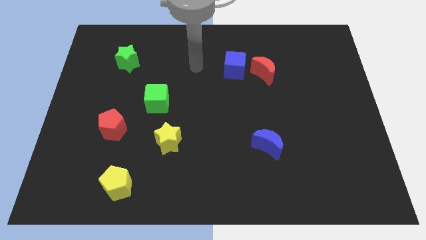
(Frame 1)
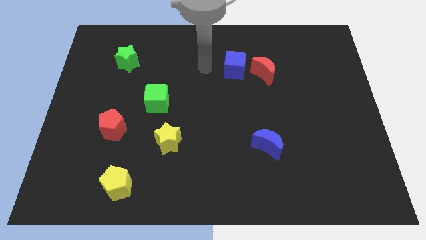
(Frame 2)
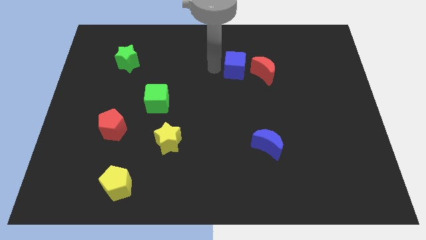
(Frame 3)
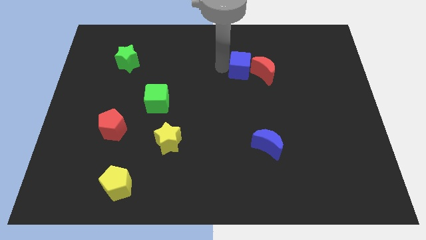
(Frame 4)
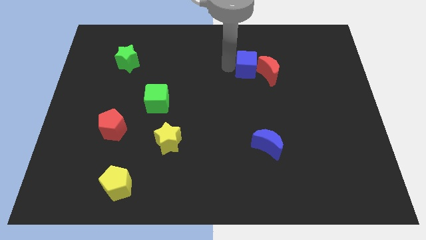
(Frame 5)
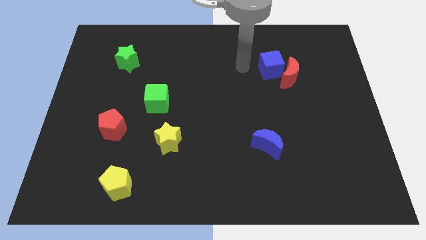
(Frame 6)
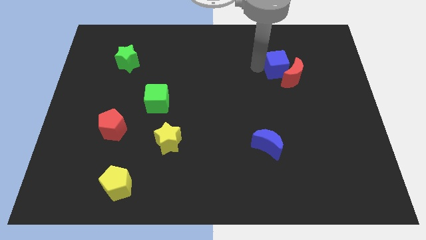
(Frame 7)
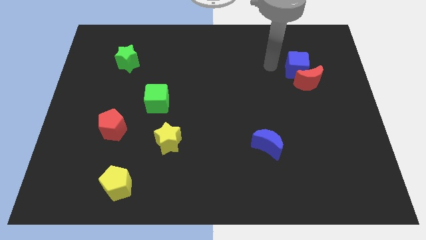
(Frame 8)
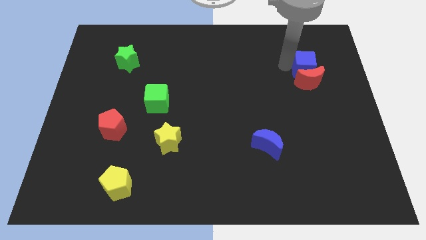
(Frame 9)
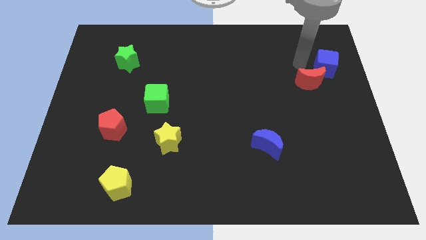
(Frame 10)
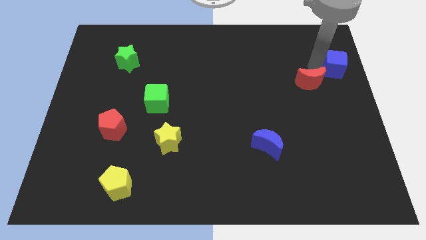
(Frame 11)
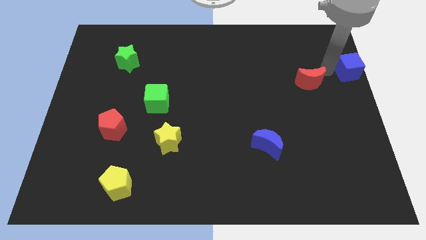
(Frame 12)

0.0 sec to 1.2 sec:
separate the red moon from the blue cube

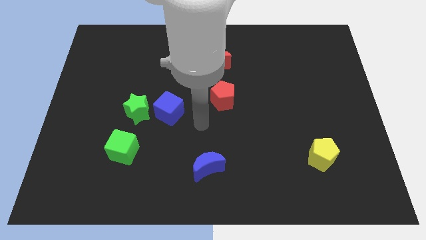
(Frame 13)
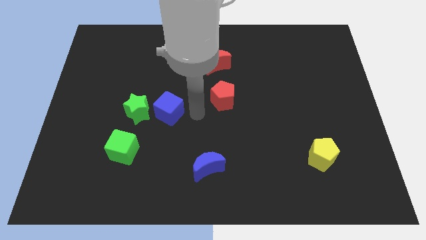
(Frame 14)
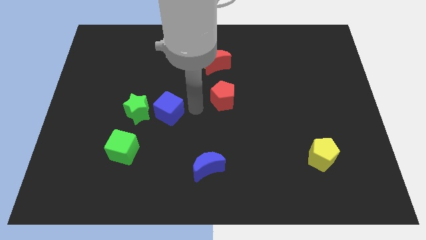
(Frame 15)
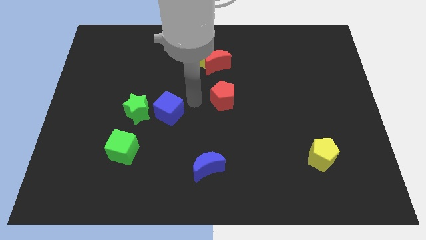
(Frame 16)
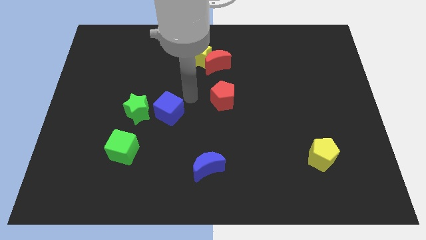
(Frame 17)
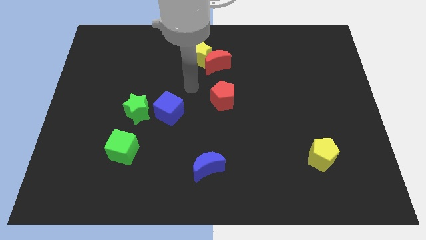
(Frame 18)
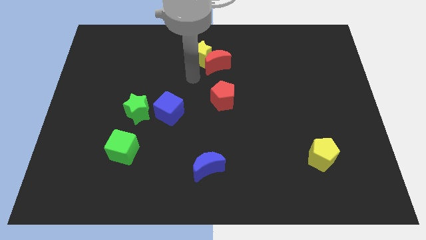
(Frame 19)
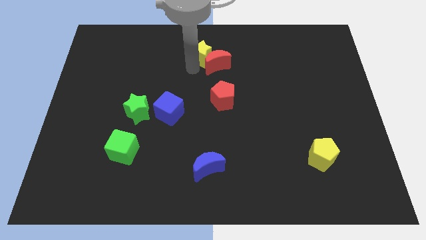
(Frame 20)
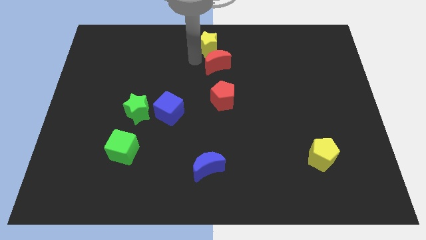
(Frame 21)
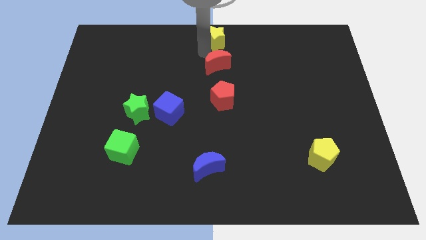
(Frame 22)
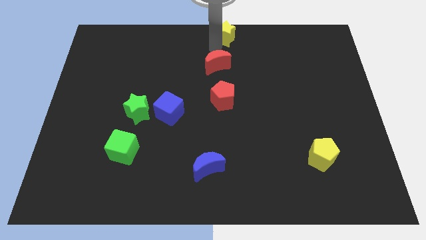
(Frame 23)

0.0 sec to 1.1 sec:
separate the red moon from the yellow star

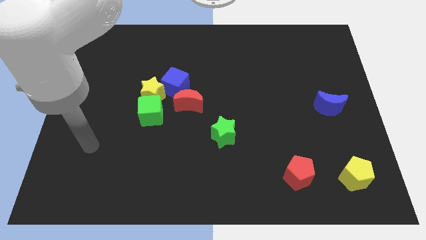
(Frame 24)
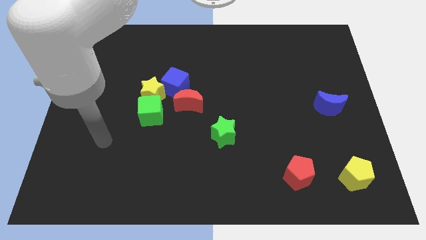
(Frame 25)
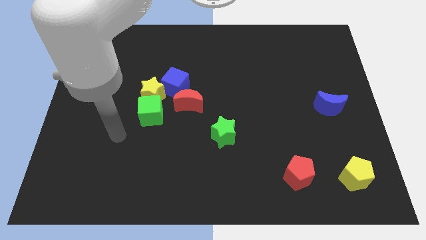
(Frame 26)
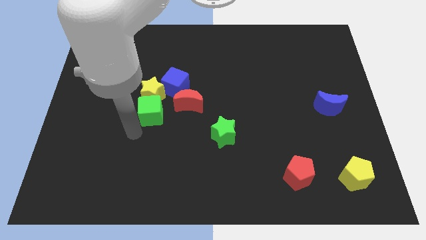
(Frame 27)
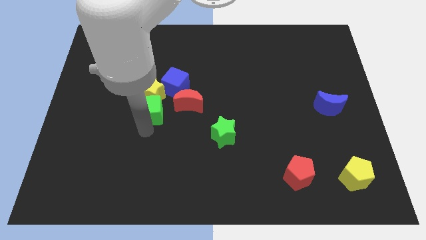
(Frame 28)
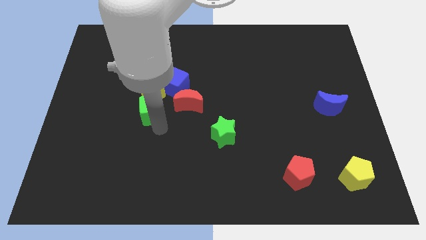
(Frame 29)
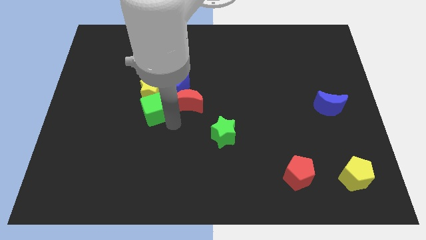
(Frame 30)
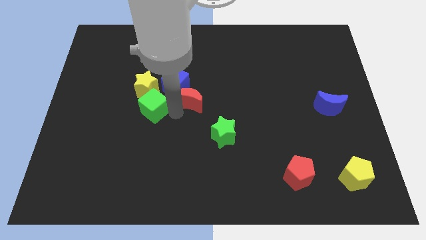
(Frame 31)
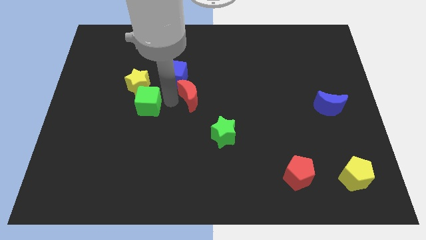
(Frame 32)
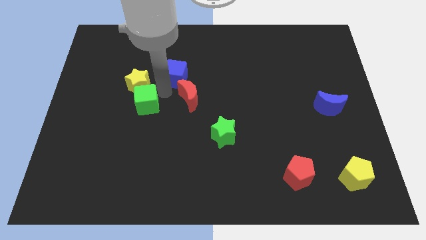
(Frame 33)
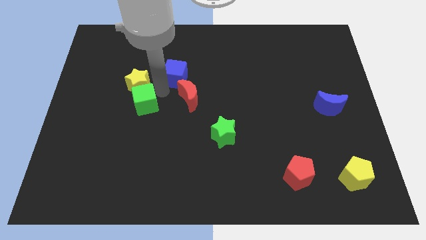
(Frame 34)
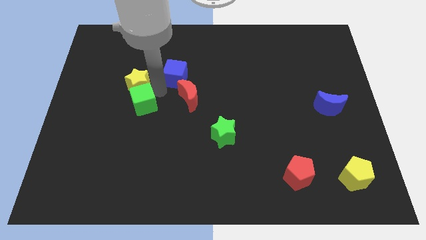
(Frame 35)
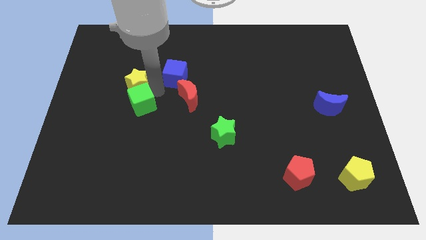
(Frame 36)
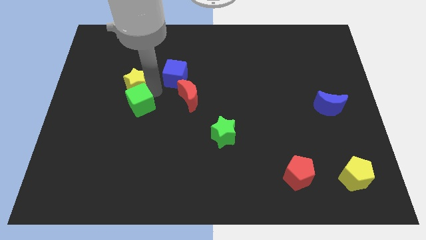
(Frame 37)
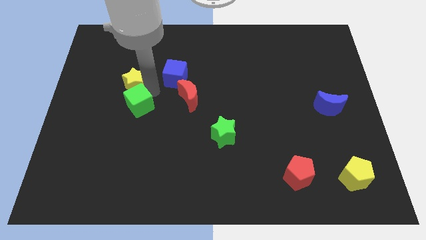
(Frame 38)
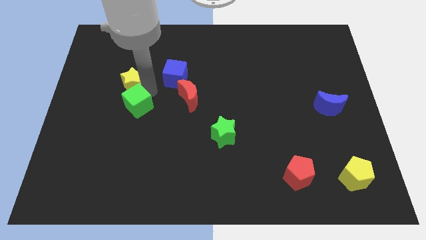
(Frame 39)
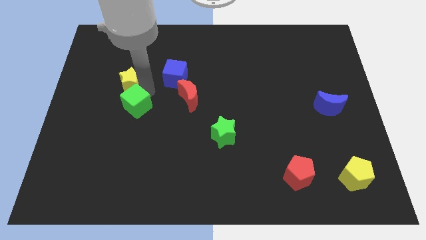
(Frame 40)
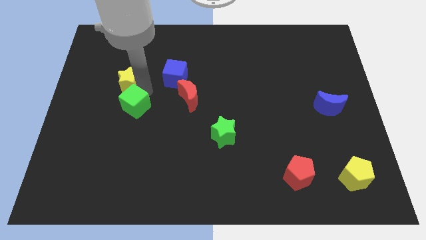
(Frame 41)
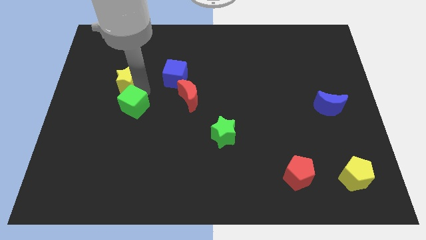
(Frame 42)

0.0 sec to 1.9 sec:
separate the yellow star from the clump

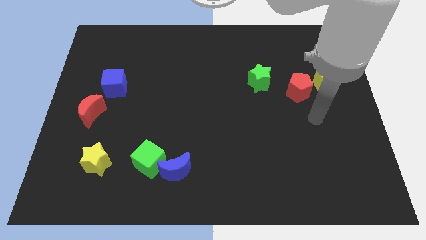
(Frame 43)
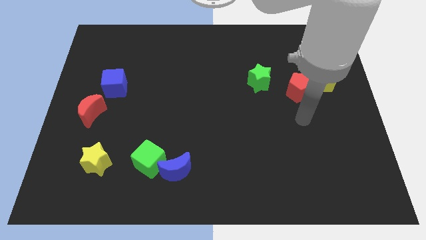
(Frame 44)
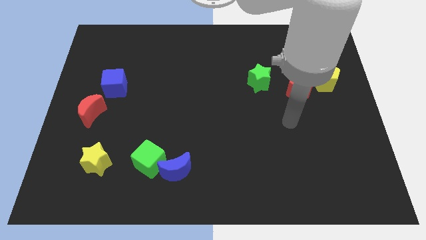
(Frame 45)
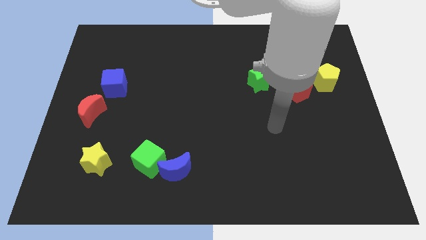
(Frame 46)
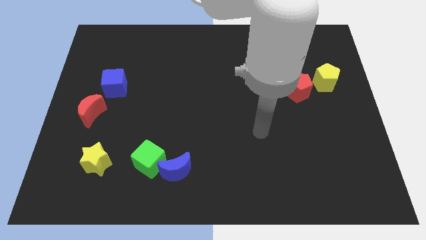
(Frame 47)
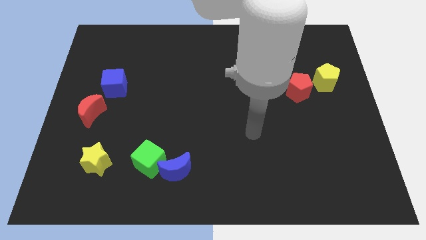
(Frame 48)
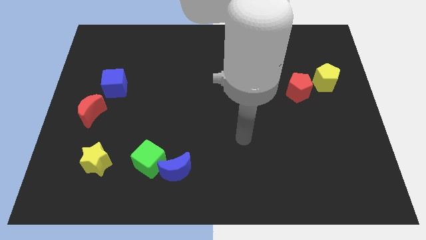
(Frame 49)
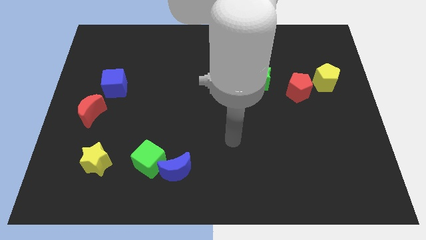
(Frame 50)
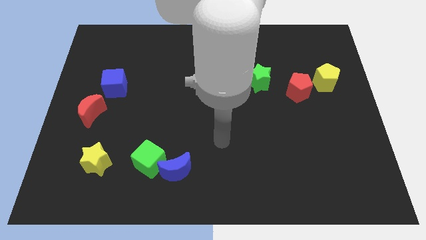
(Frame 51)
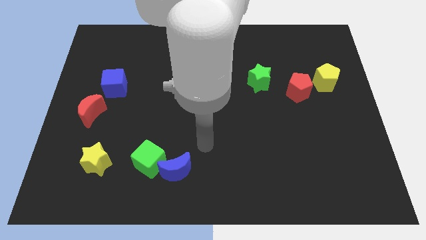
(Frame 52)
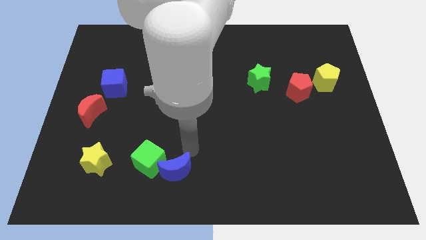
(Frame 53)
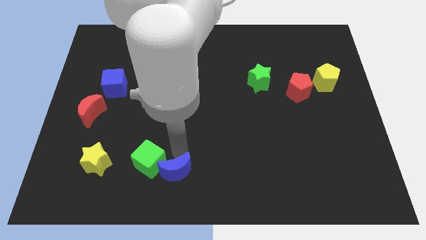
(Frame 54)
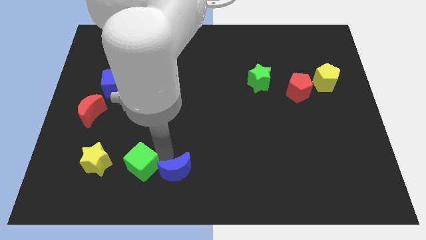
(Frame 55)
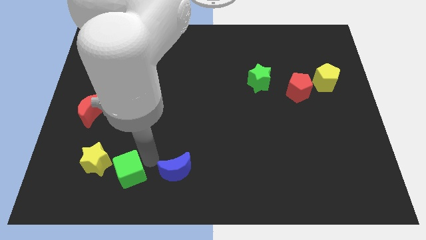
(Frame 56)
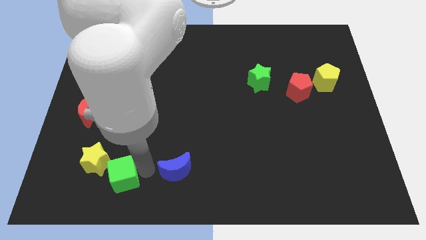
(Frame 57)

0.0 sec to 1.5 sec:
separate the blue moon from the green cube

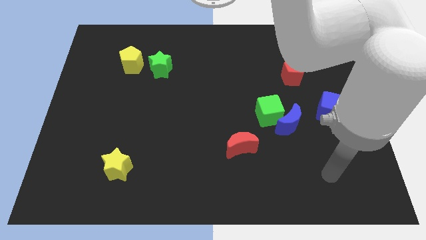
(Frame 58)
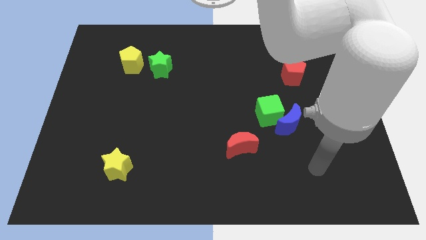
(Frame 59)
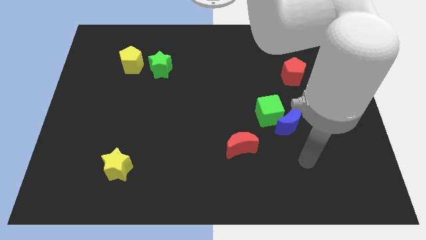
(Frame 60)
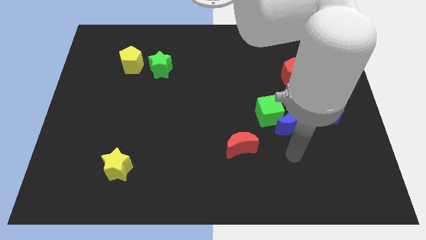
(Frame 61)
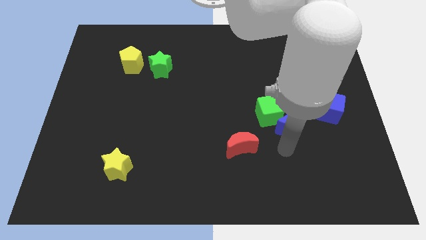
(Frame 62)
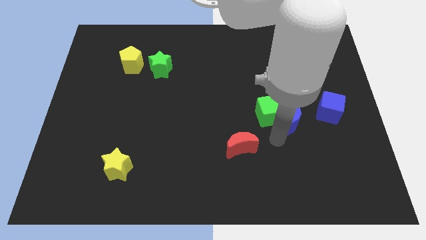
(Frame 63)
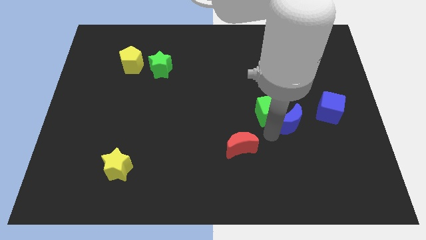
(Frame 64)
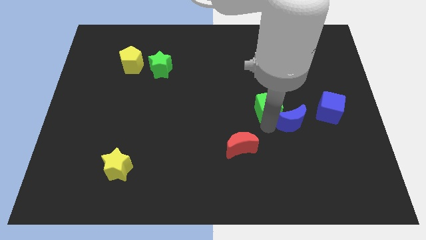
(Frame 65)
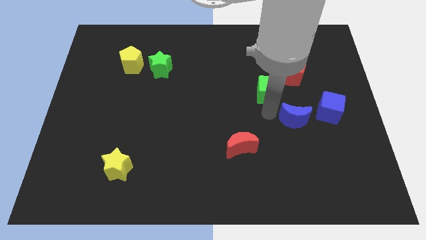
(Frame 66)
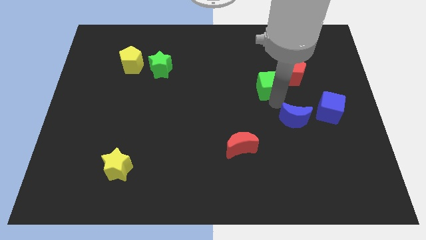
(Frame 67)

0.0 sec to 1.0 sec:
move the blue moon away from the green cube

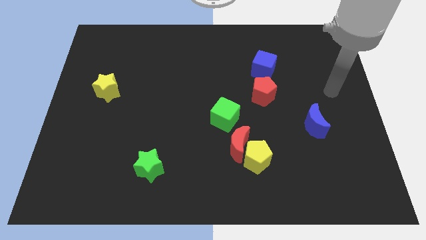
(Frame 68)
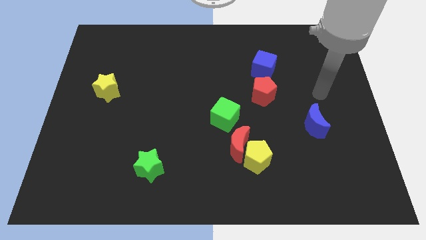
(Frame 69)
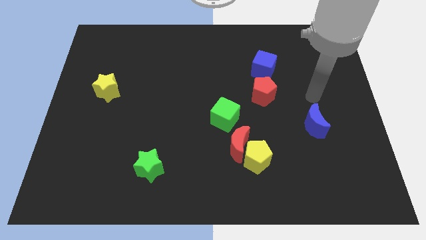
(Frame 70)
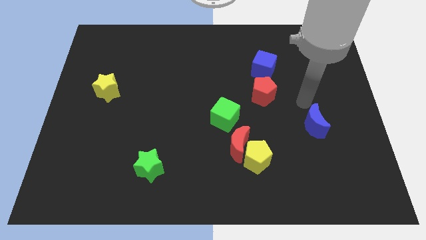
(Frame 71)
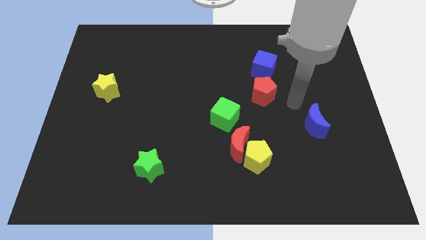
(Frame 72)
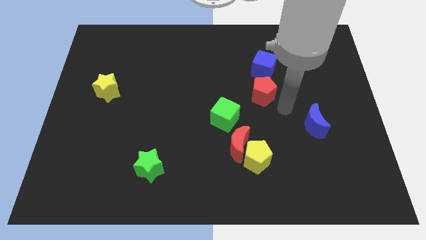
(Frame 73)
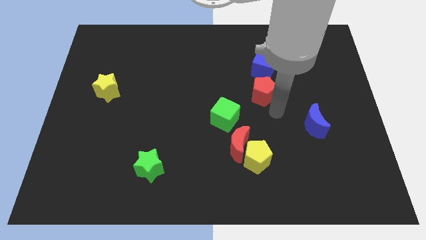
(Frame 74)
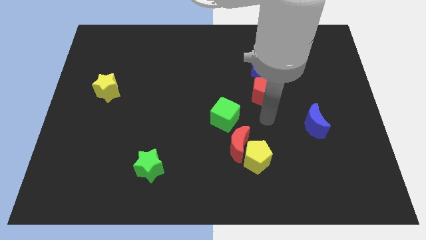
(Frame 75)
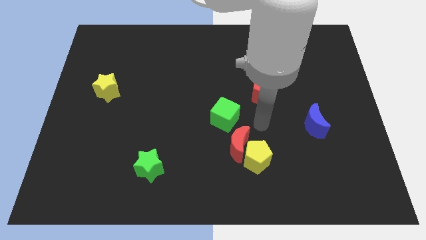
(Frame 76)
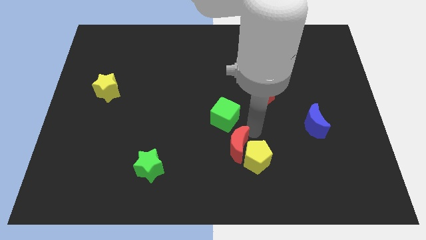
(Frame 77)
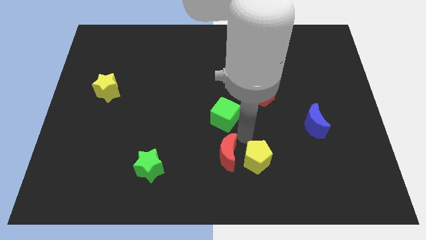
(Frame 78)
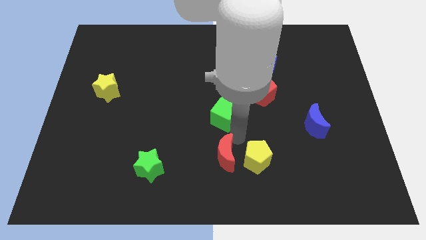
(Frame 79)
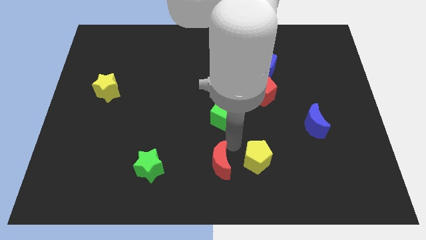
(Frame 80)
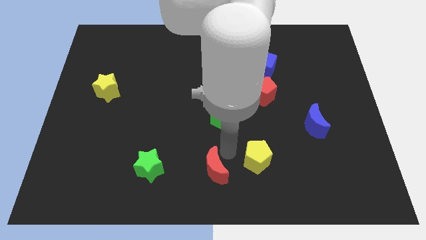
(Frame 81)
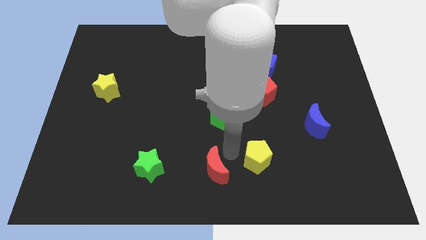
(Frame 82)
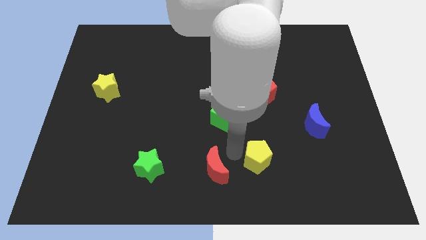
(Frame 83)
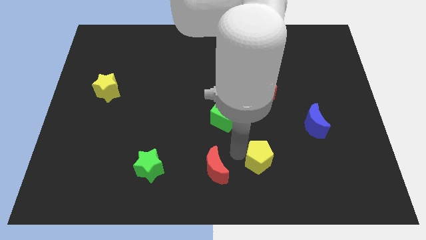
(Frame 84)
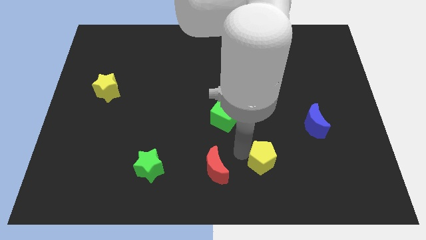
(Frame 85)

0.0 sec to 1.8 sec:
separate the yellow pentagon from the red moon

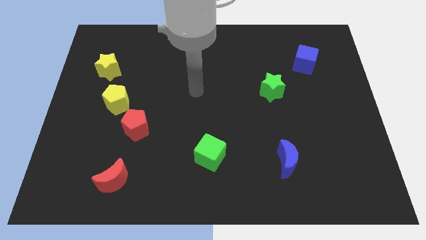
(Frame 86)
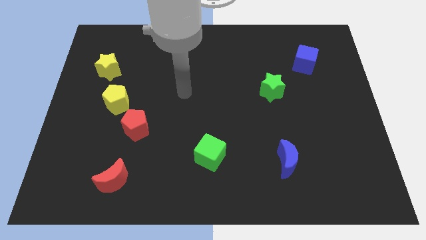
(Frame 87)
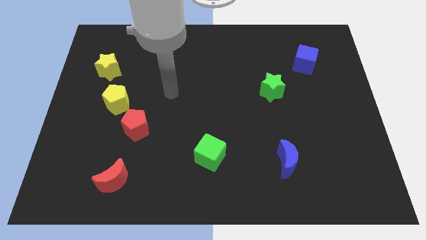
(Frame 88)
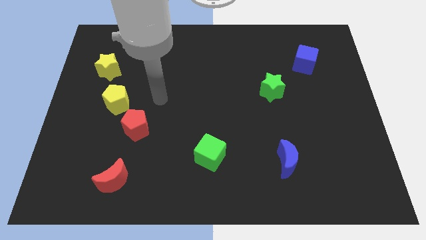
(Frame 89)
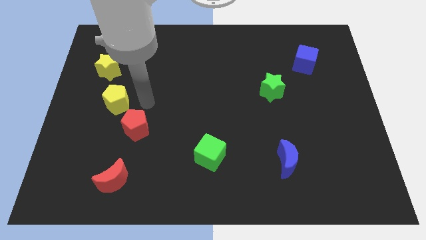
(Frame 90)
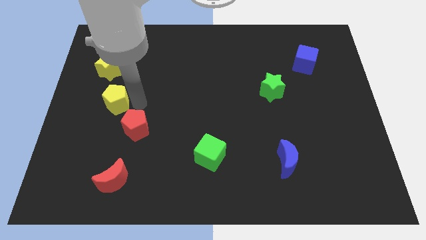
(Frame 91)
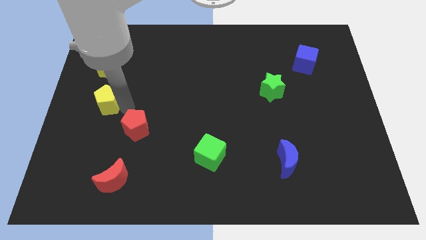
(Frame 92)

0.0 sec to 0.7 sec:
separate the red pentagon from the yellow pentagon

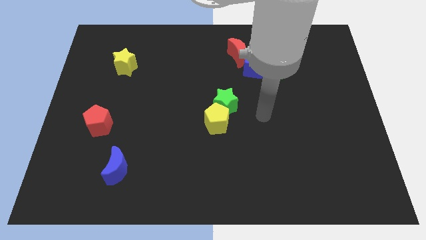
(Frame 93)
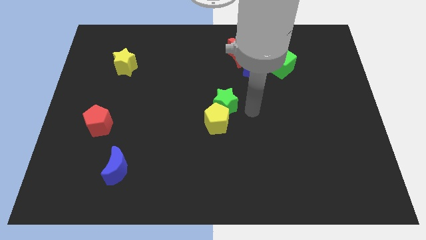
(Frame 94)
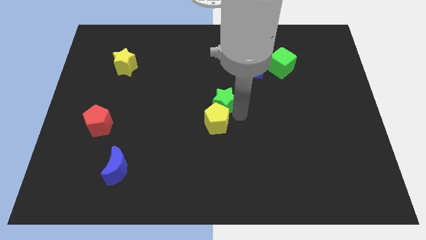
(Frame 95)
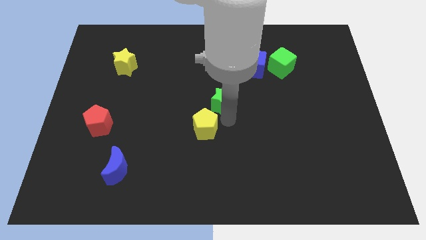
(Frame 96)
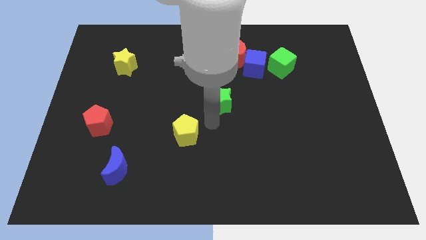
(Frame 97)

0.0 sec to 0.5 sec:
separate the green star from the yellow pentagon
